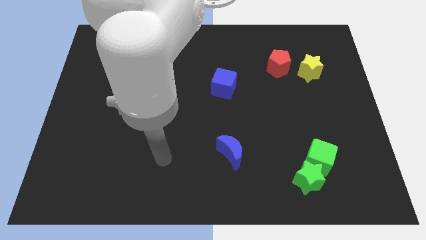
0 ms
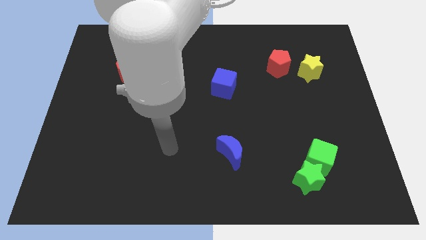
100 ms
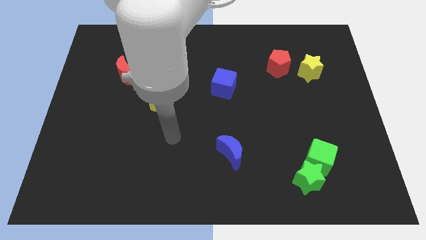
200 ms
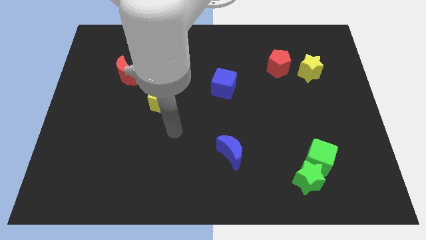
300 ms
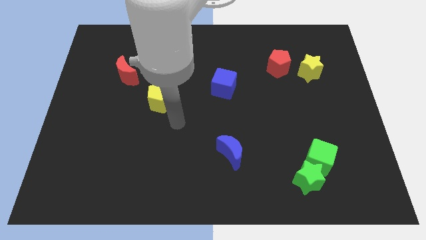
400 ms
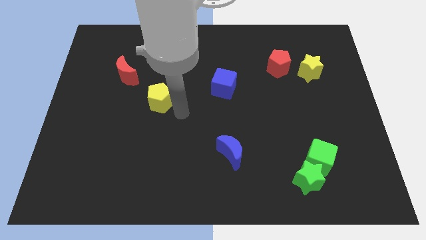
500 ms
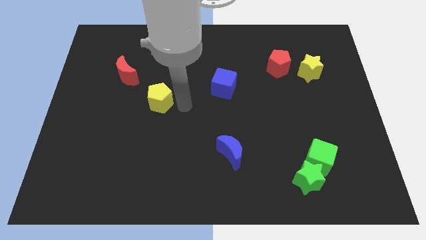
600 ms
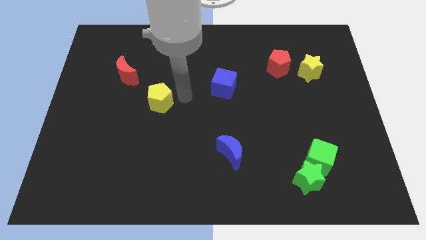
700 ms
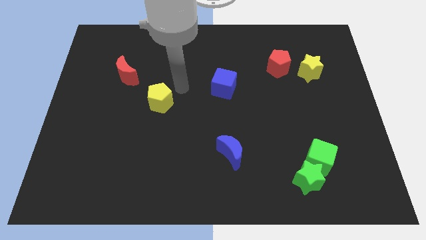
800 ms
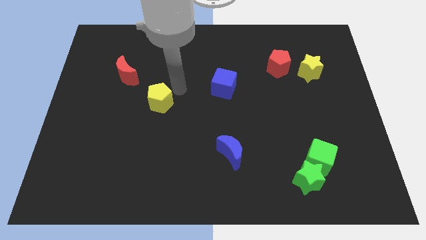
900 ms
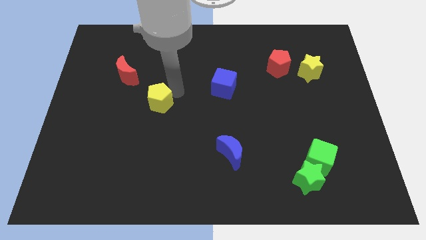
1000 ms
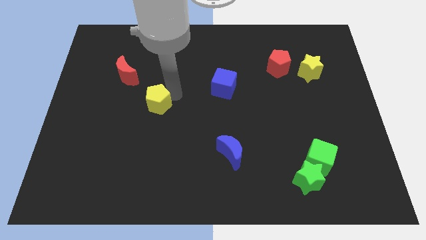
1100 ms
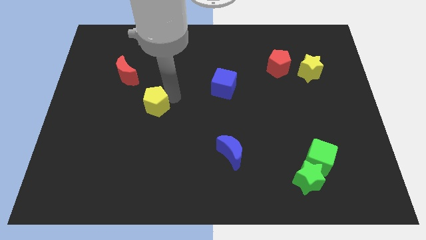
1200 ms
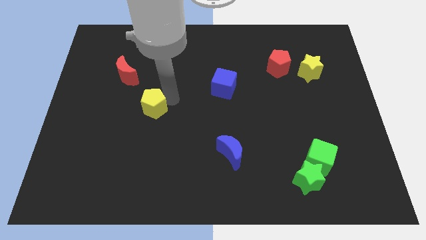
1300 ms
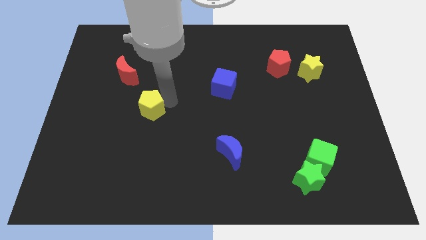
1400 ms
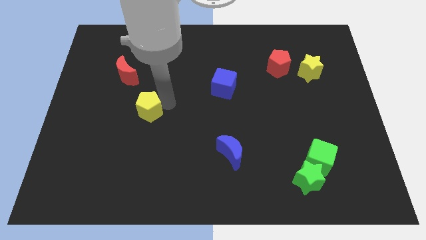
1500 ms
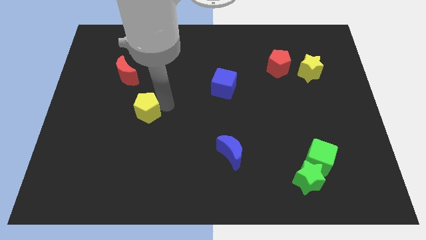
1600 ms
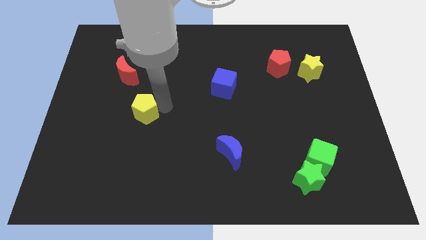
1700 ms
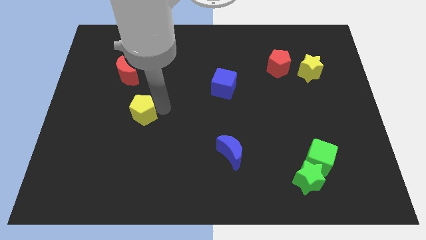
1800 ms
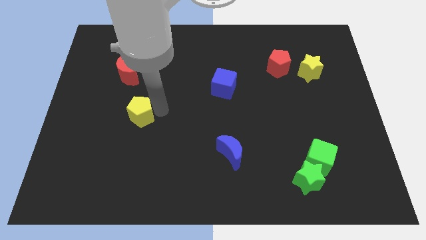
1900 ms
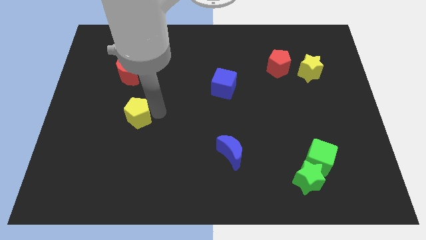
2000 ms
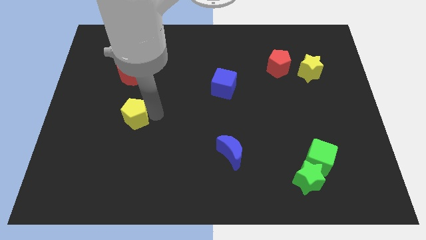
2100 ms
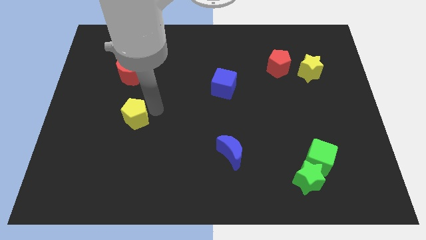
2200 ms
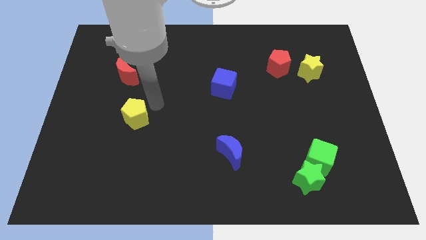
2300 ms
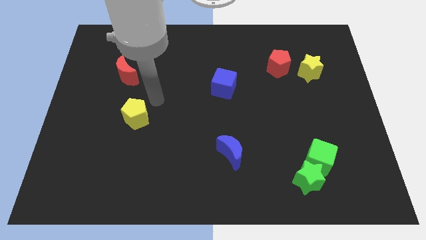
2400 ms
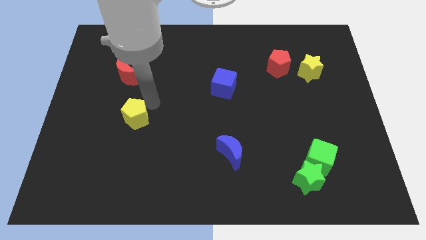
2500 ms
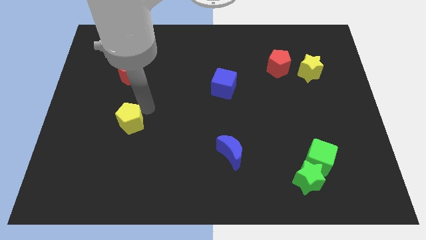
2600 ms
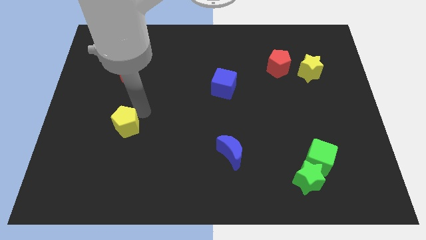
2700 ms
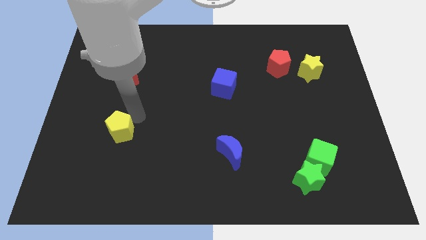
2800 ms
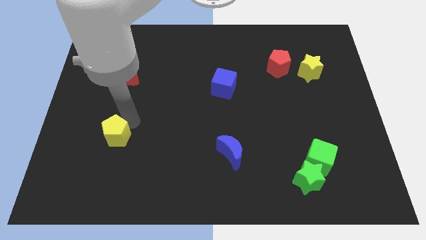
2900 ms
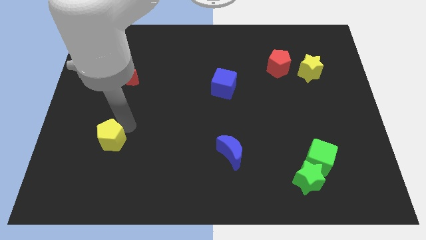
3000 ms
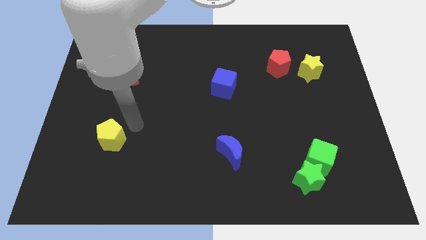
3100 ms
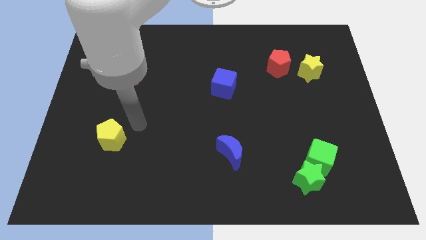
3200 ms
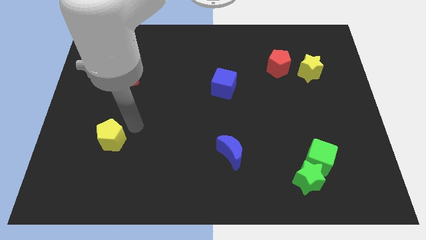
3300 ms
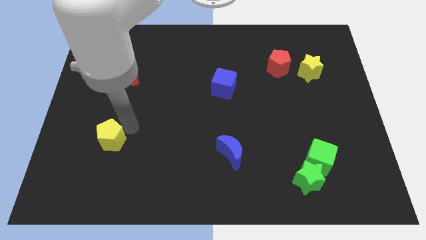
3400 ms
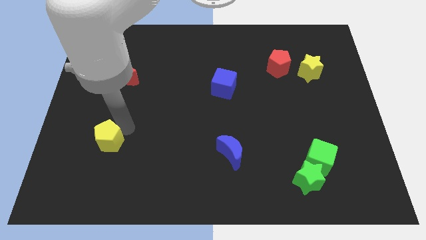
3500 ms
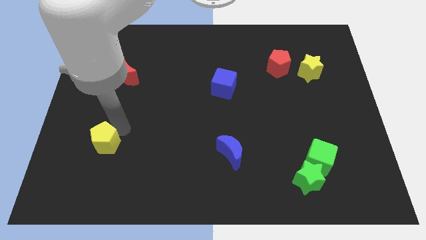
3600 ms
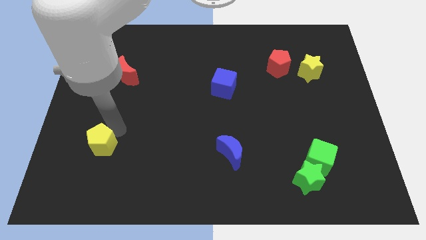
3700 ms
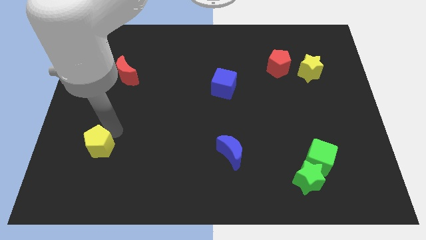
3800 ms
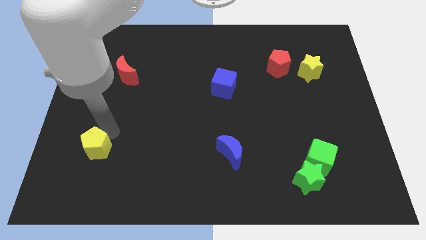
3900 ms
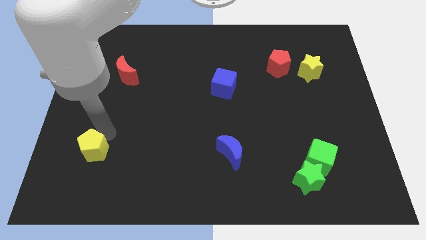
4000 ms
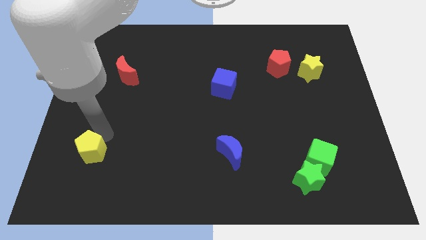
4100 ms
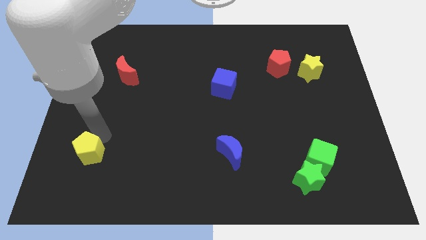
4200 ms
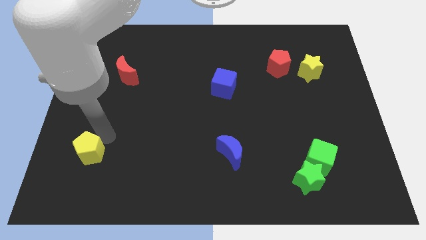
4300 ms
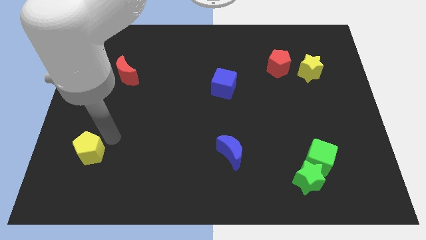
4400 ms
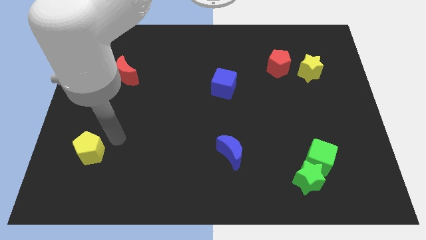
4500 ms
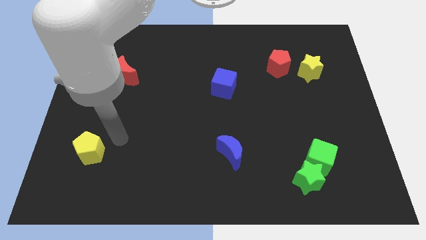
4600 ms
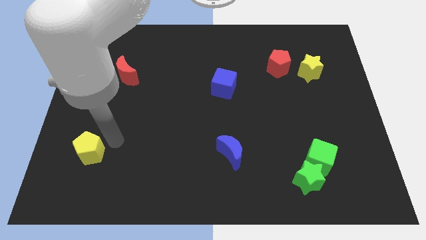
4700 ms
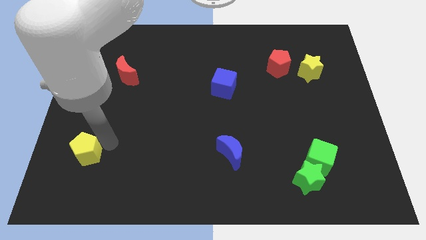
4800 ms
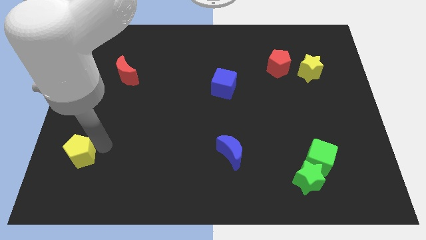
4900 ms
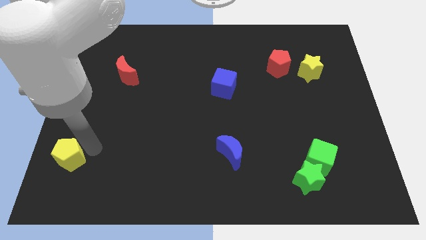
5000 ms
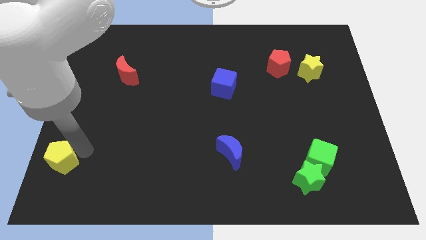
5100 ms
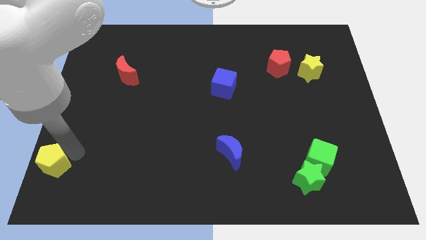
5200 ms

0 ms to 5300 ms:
put the yellow pentagon to the bottom left of the board

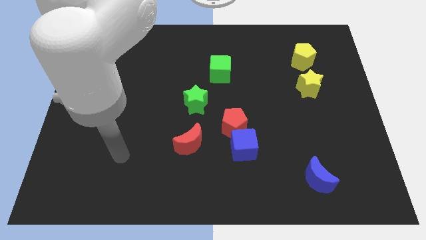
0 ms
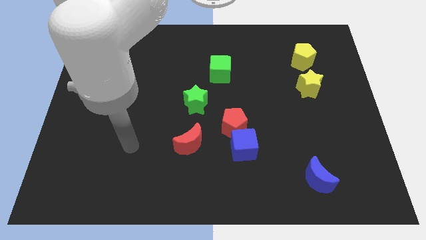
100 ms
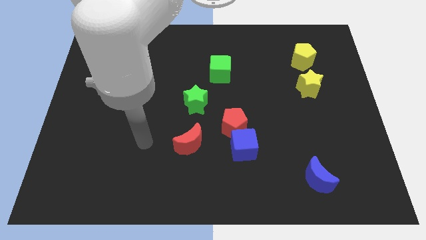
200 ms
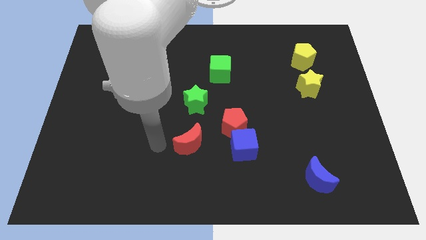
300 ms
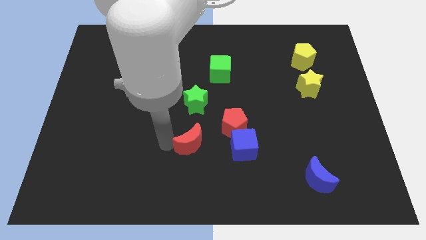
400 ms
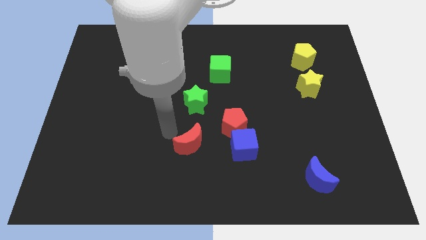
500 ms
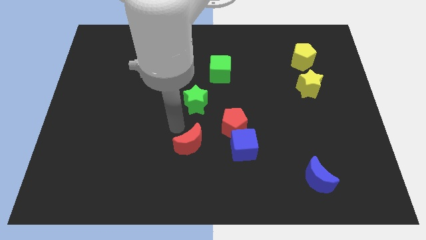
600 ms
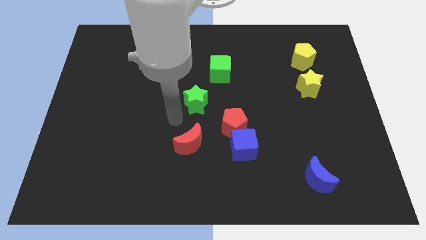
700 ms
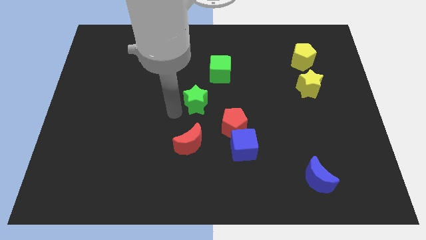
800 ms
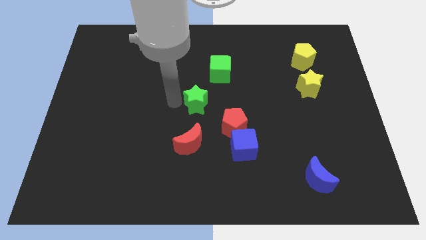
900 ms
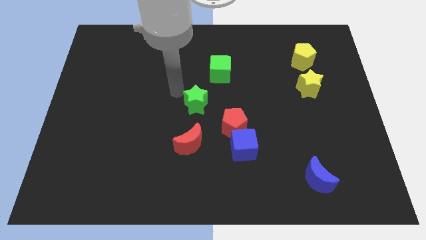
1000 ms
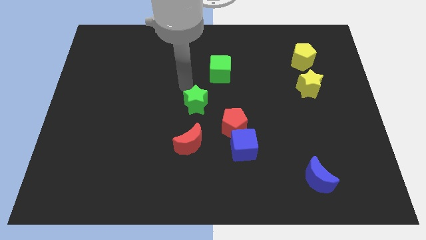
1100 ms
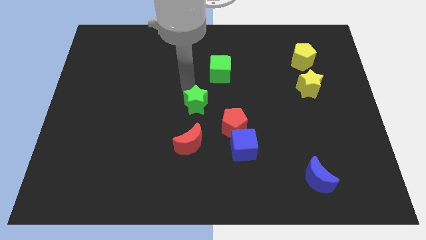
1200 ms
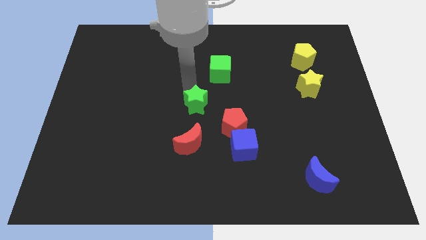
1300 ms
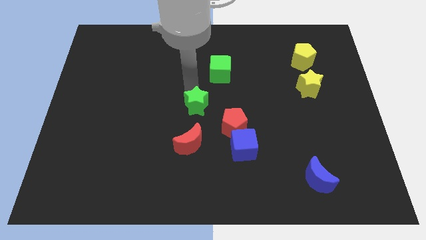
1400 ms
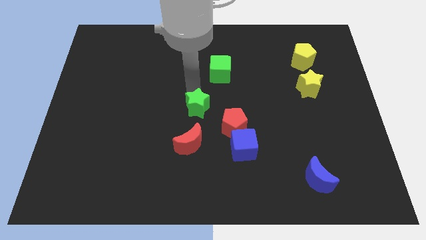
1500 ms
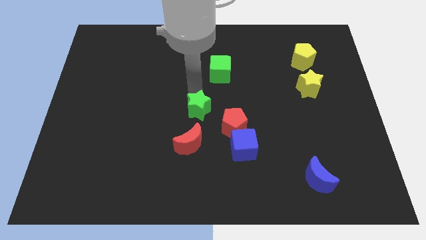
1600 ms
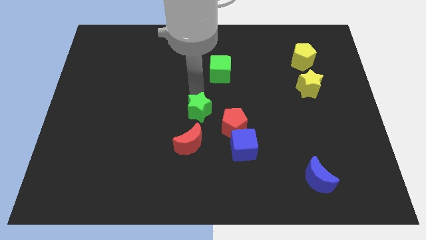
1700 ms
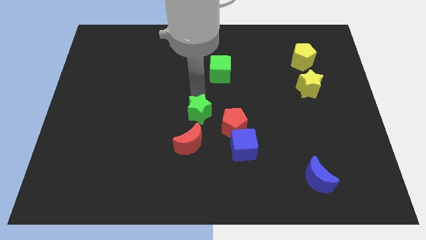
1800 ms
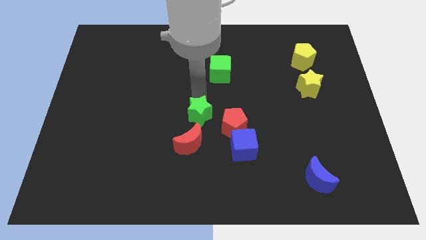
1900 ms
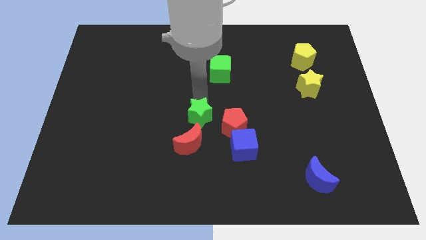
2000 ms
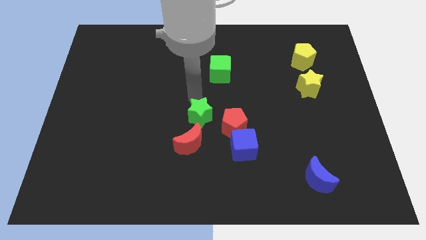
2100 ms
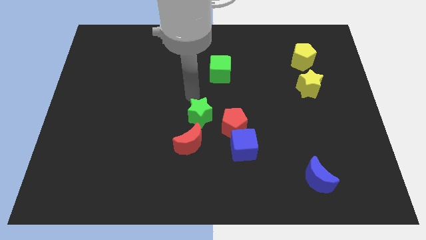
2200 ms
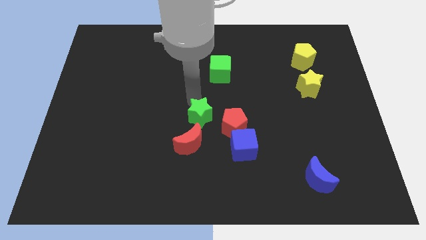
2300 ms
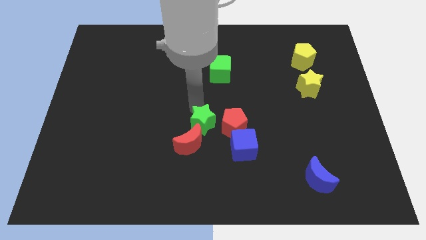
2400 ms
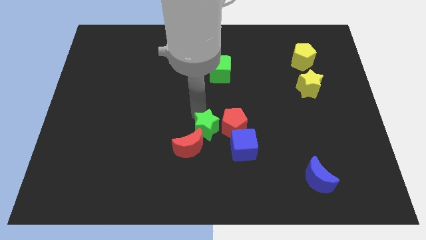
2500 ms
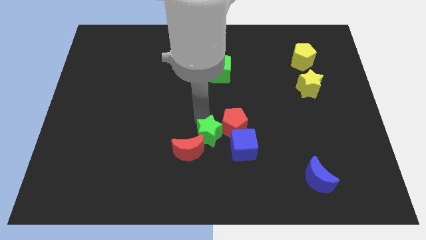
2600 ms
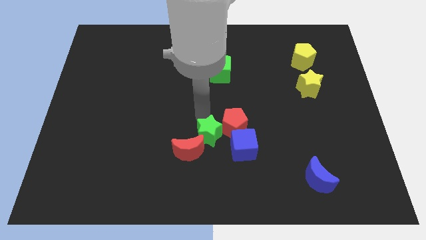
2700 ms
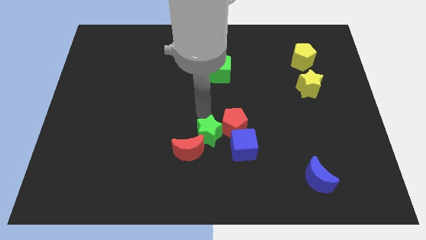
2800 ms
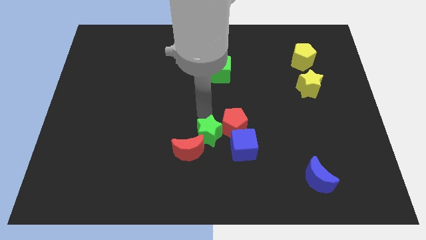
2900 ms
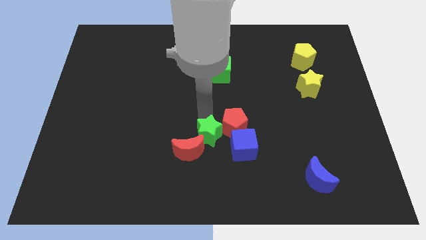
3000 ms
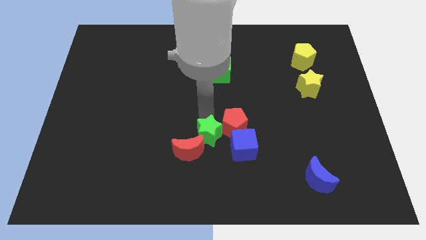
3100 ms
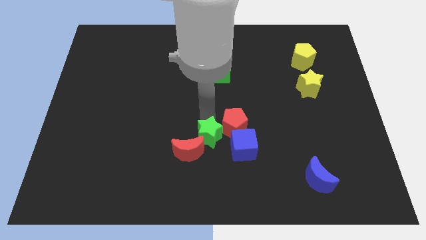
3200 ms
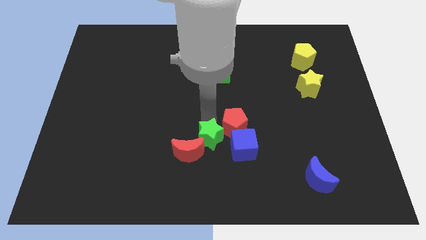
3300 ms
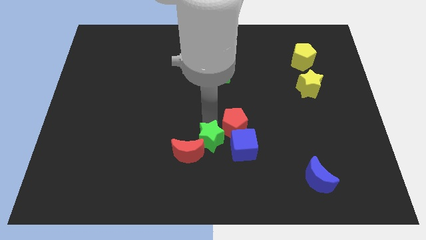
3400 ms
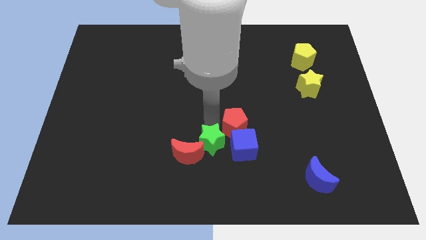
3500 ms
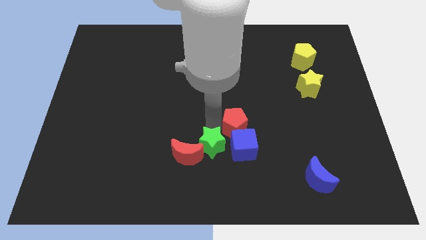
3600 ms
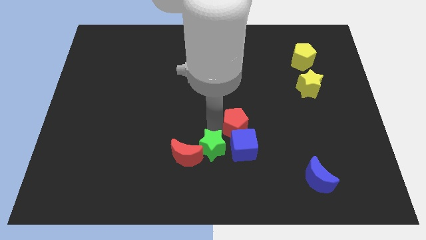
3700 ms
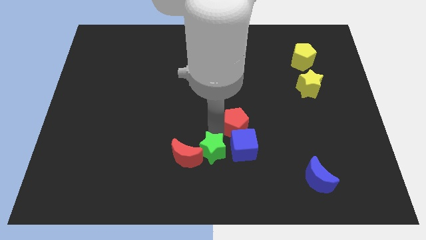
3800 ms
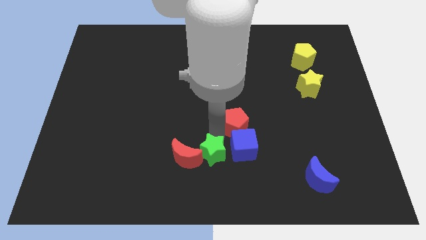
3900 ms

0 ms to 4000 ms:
slide the green star to the bottom
